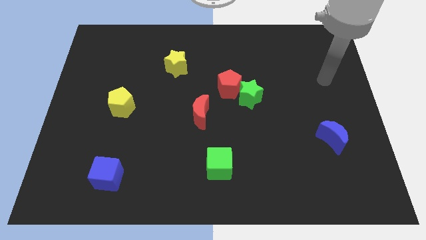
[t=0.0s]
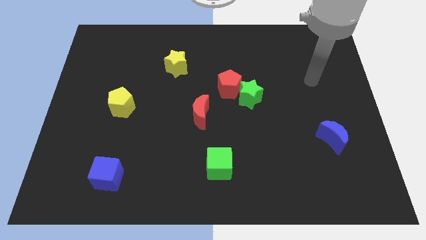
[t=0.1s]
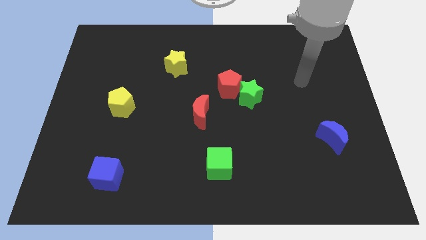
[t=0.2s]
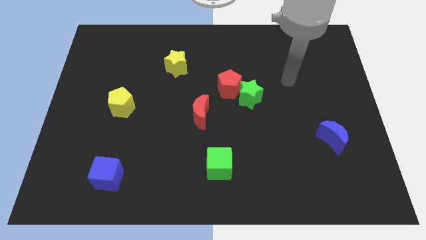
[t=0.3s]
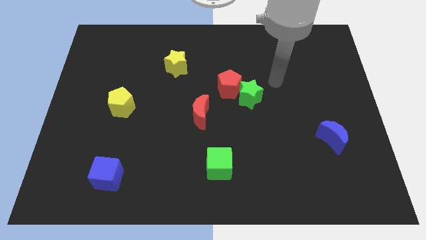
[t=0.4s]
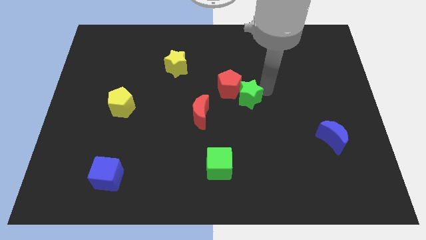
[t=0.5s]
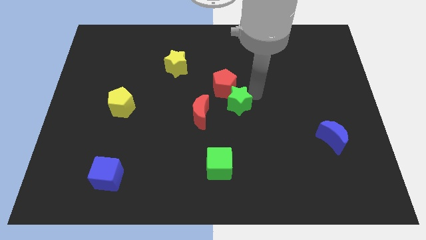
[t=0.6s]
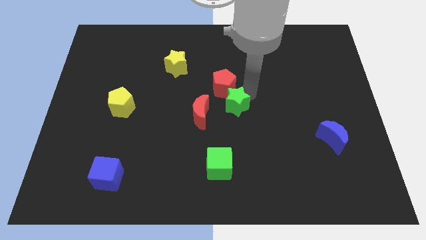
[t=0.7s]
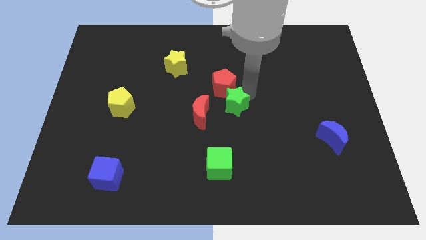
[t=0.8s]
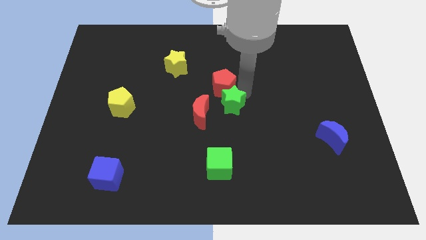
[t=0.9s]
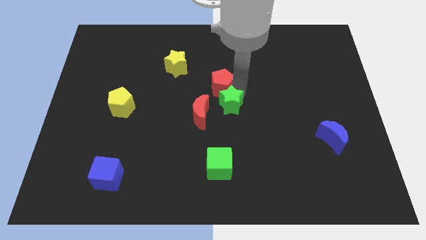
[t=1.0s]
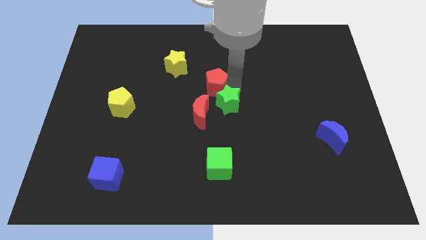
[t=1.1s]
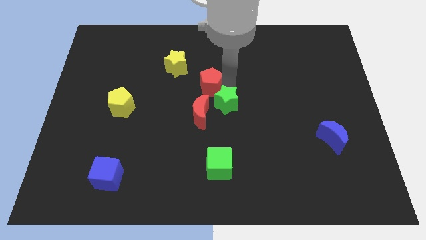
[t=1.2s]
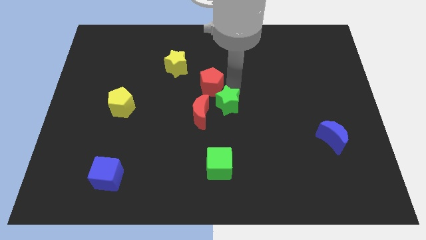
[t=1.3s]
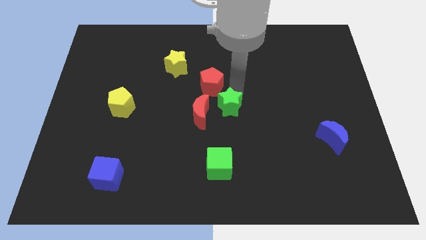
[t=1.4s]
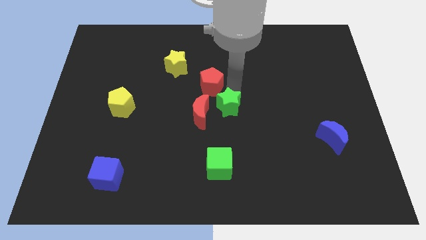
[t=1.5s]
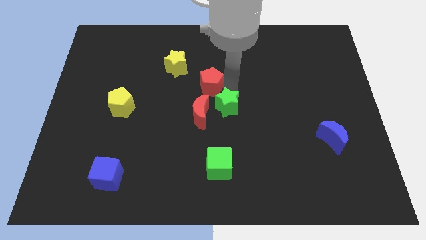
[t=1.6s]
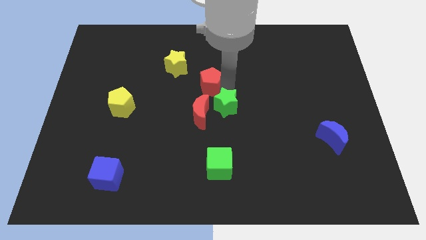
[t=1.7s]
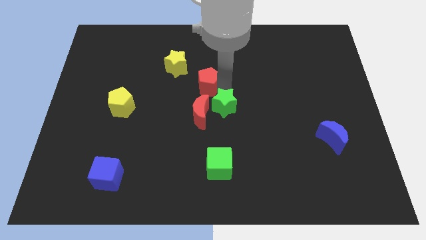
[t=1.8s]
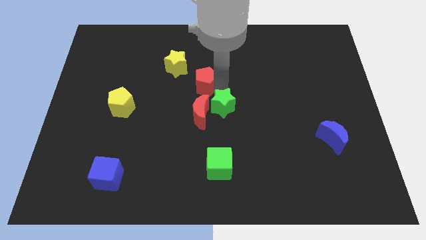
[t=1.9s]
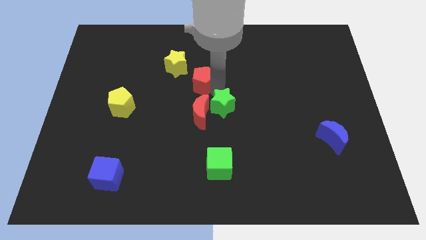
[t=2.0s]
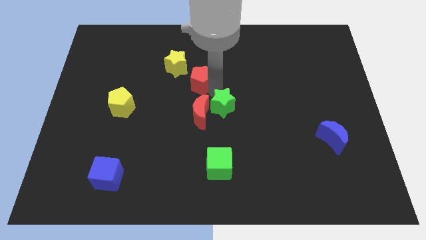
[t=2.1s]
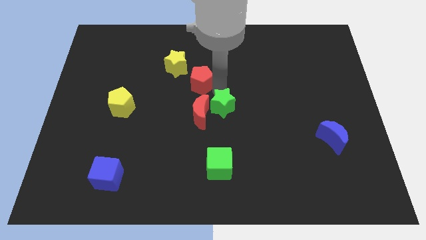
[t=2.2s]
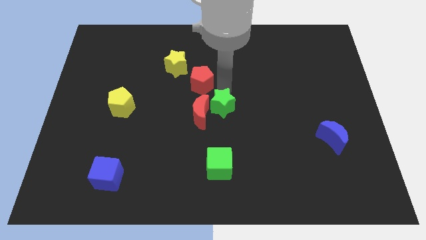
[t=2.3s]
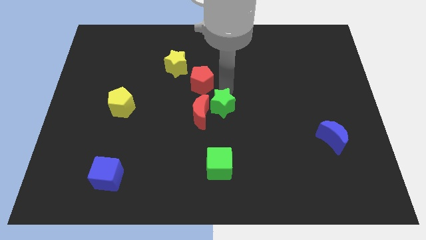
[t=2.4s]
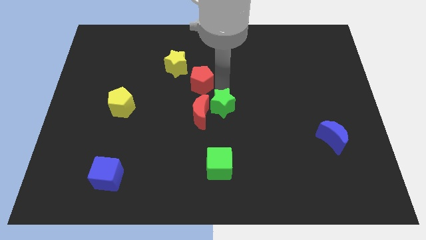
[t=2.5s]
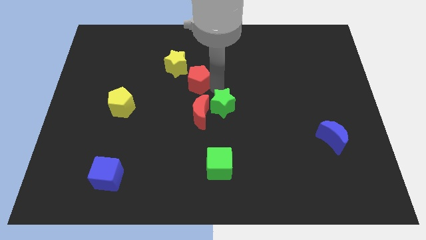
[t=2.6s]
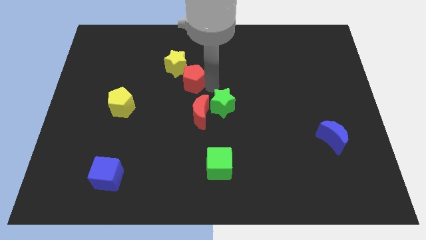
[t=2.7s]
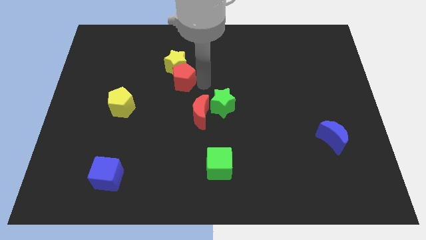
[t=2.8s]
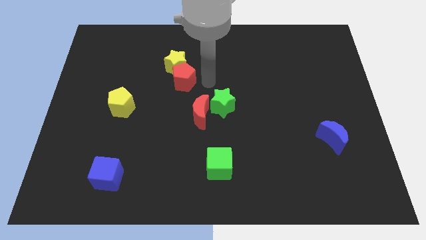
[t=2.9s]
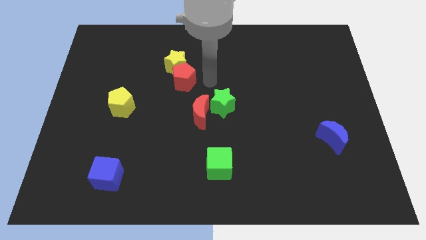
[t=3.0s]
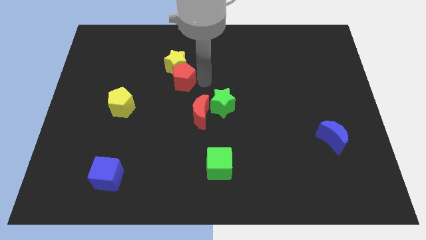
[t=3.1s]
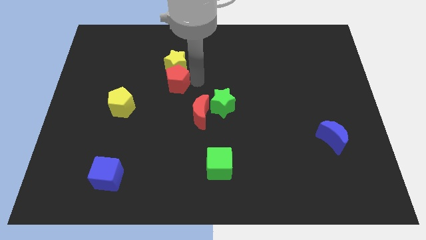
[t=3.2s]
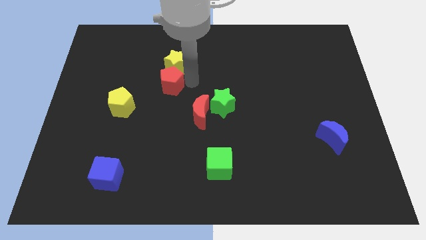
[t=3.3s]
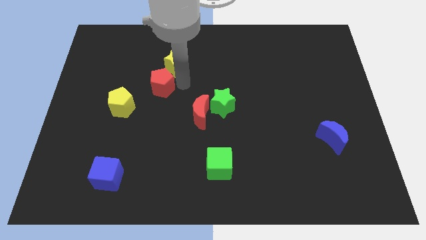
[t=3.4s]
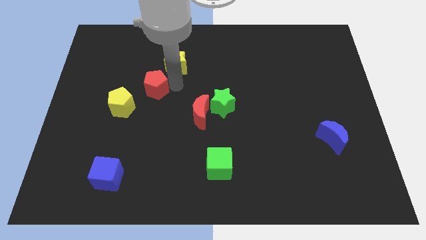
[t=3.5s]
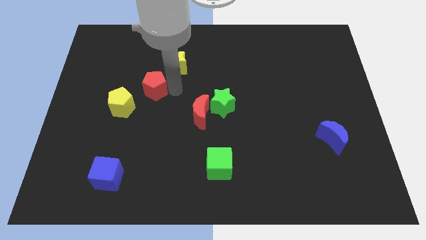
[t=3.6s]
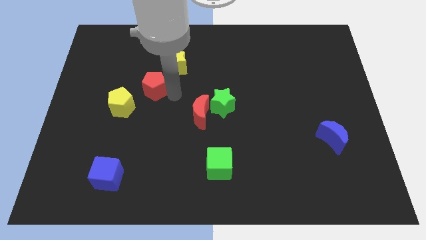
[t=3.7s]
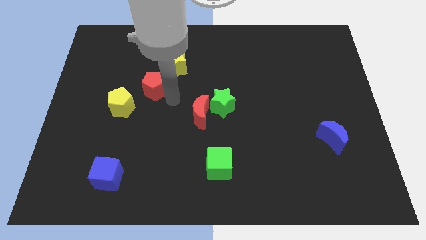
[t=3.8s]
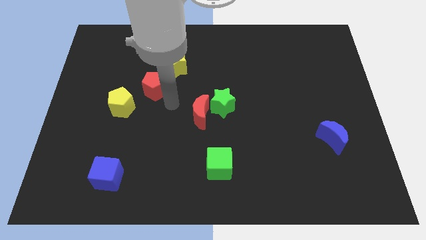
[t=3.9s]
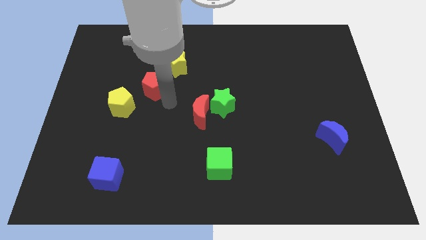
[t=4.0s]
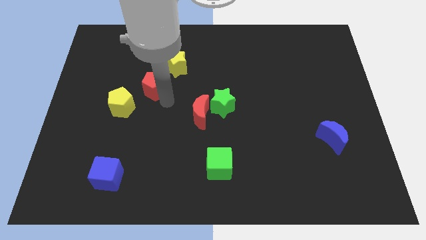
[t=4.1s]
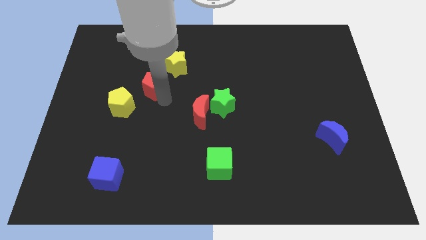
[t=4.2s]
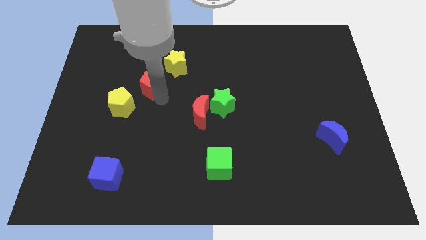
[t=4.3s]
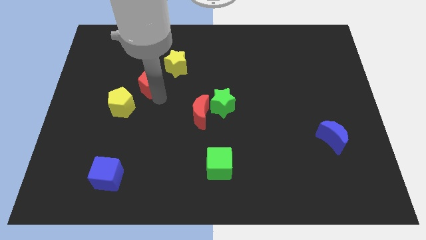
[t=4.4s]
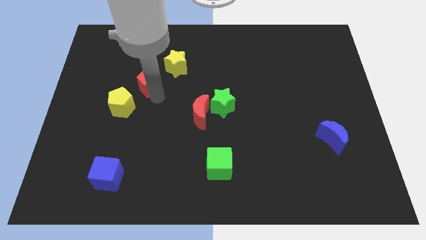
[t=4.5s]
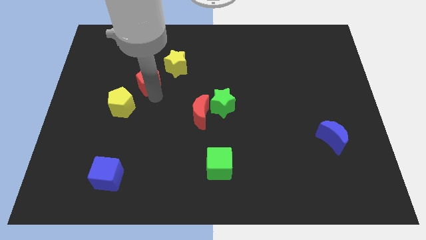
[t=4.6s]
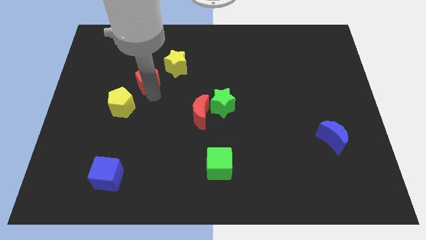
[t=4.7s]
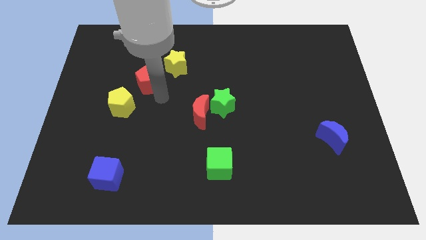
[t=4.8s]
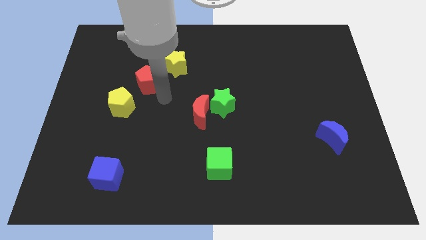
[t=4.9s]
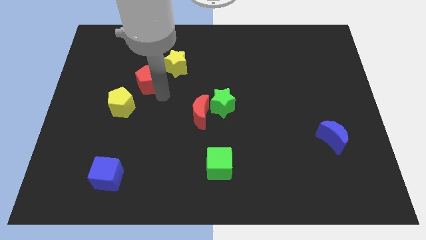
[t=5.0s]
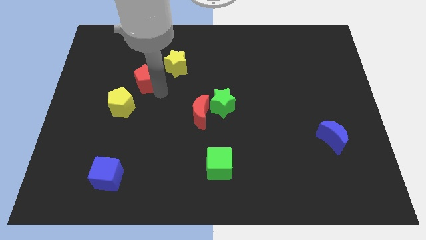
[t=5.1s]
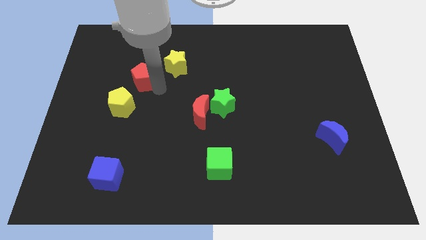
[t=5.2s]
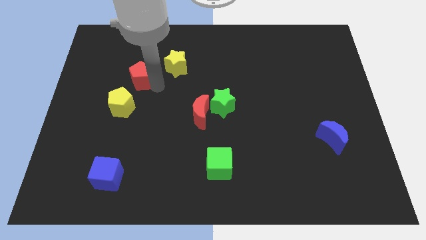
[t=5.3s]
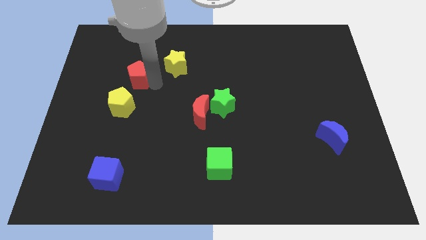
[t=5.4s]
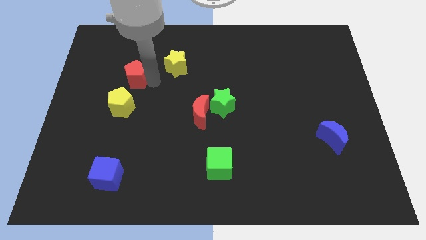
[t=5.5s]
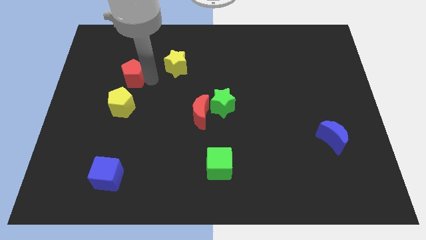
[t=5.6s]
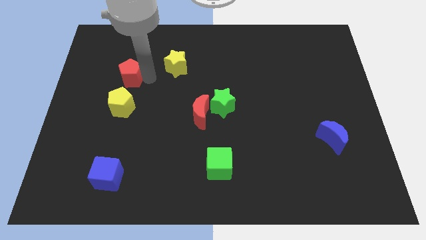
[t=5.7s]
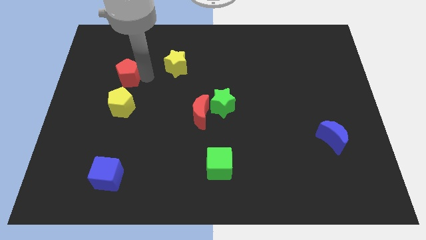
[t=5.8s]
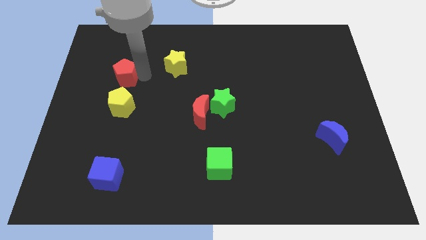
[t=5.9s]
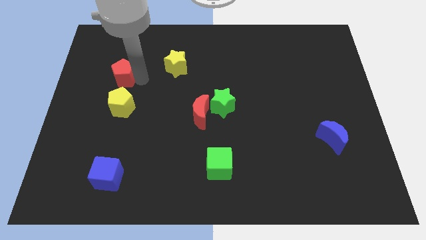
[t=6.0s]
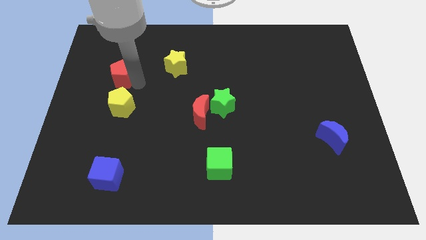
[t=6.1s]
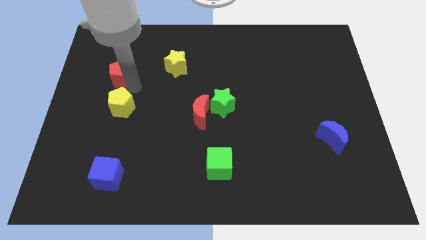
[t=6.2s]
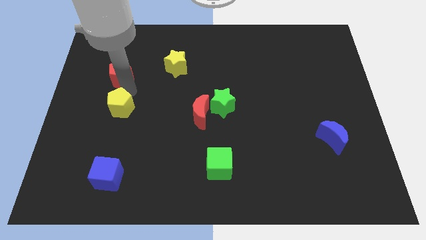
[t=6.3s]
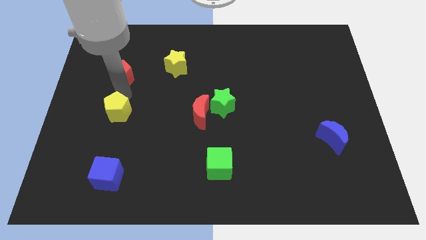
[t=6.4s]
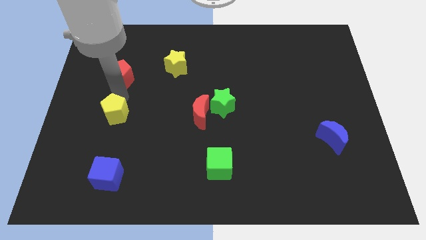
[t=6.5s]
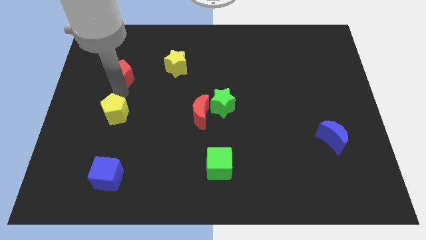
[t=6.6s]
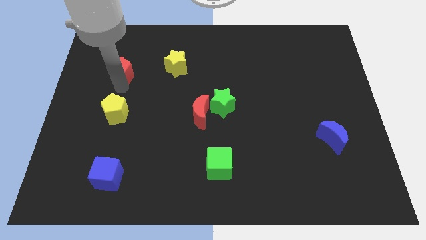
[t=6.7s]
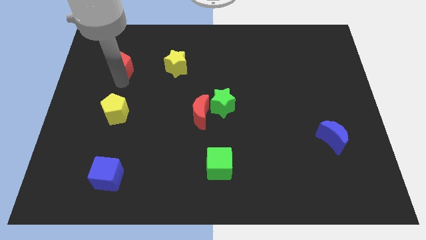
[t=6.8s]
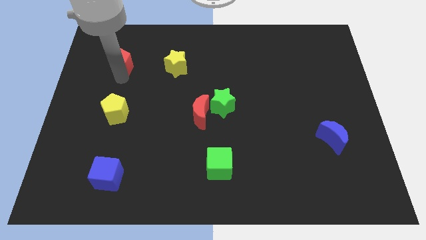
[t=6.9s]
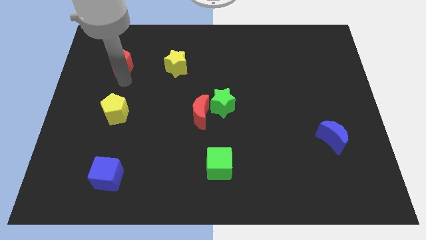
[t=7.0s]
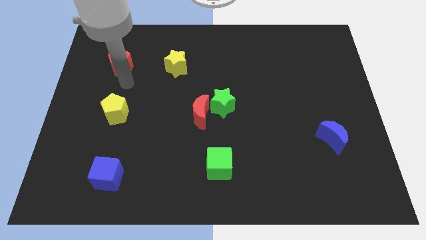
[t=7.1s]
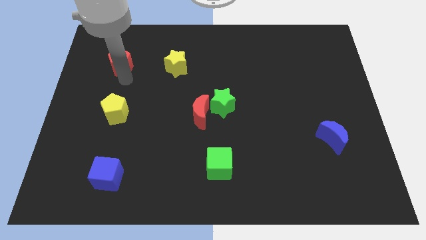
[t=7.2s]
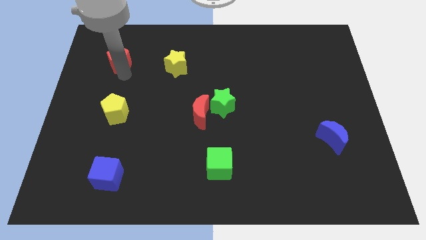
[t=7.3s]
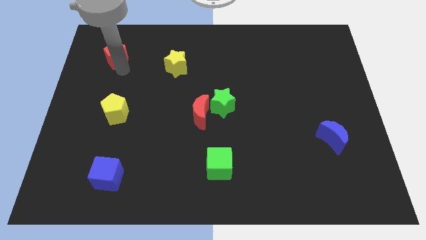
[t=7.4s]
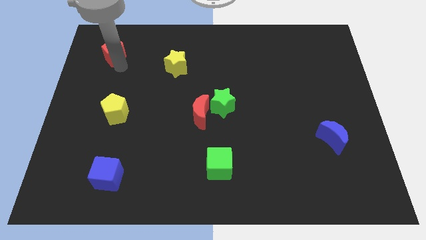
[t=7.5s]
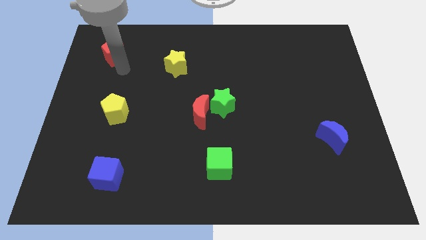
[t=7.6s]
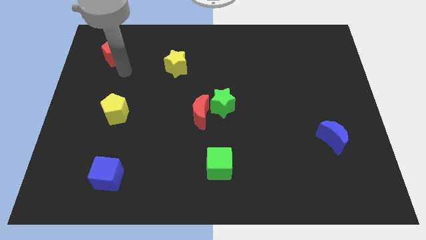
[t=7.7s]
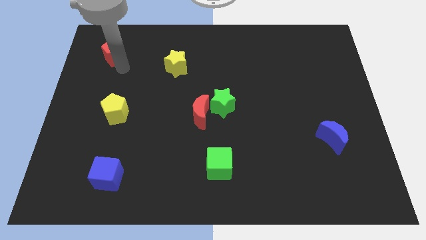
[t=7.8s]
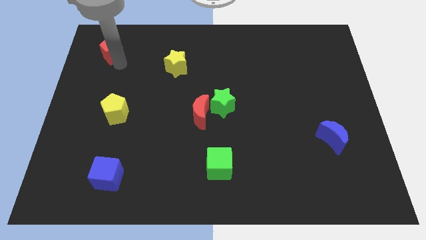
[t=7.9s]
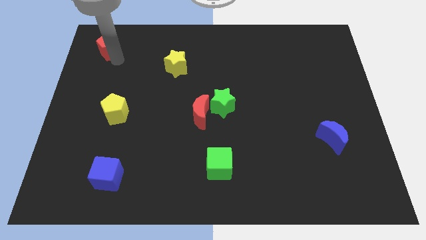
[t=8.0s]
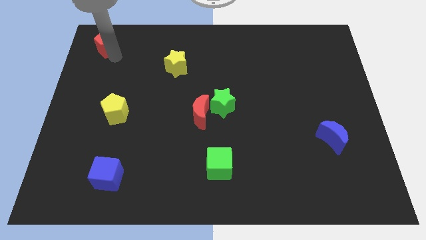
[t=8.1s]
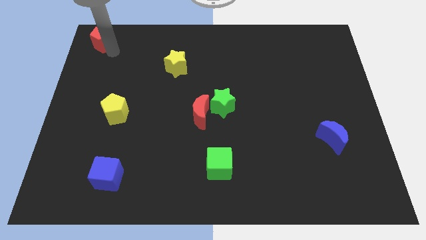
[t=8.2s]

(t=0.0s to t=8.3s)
put the red pentagon to the top left corner
